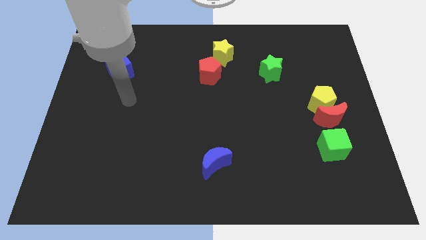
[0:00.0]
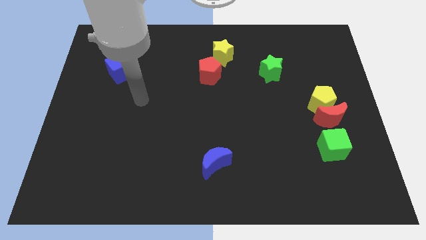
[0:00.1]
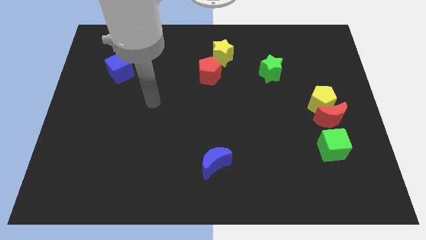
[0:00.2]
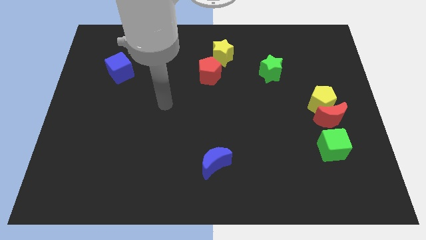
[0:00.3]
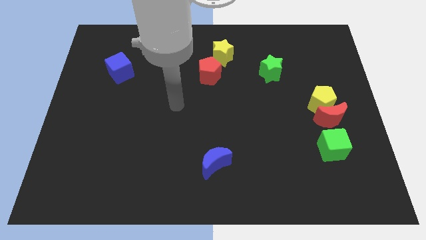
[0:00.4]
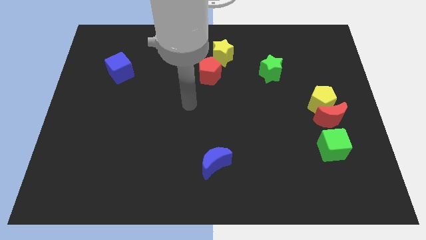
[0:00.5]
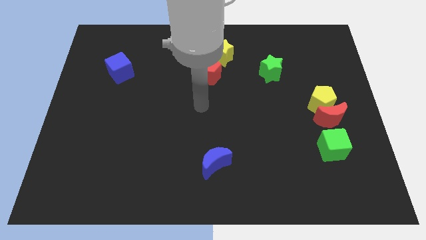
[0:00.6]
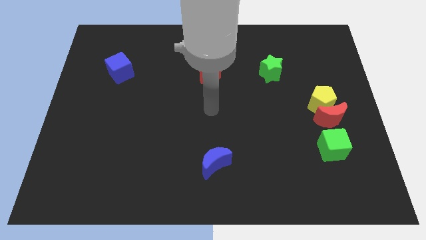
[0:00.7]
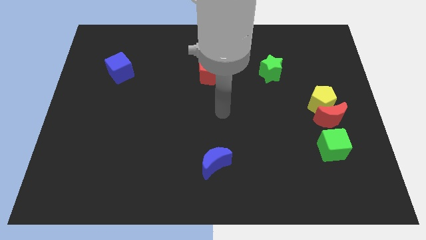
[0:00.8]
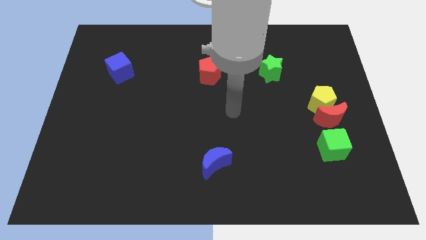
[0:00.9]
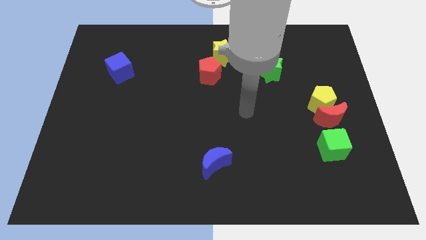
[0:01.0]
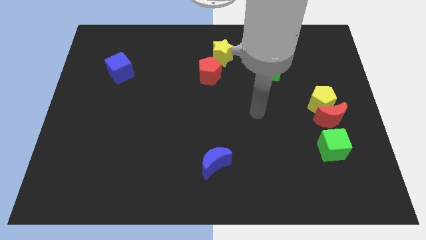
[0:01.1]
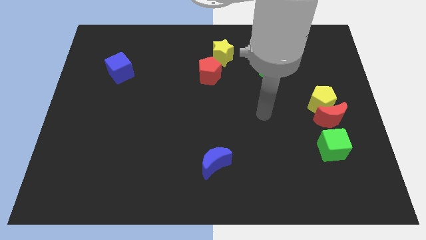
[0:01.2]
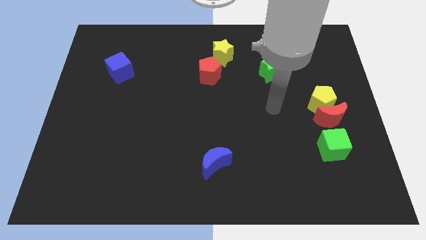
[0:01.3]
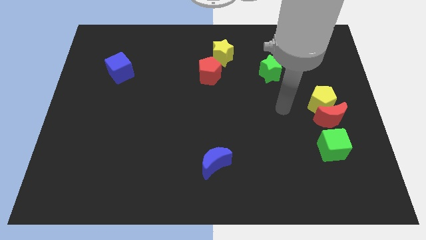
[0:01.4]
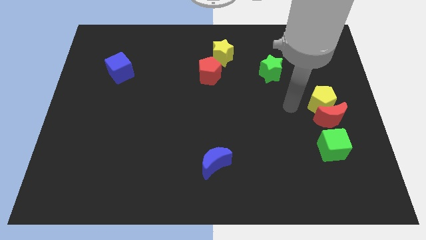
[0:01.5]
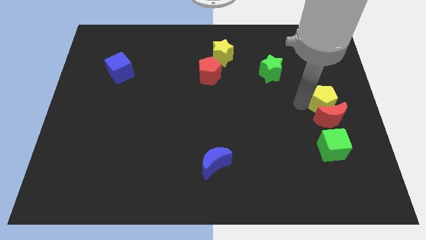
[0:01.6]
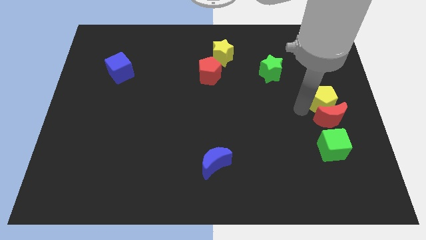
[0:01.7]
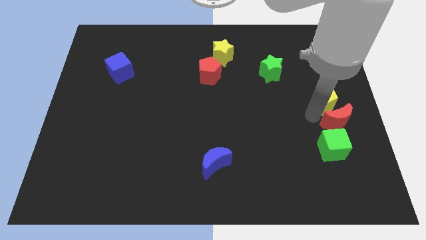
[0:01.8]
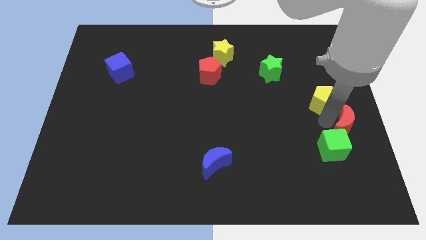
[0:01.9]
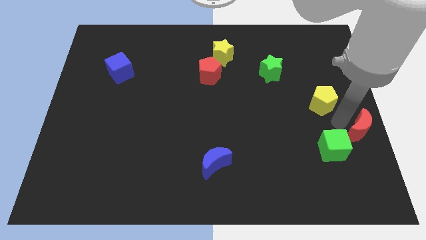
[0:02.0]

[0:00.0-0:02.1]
separate the yellow pentagon from the red moon

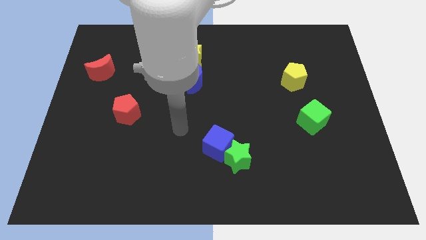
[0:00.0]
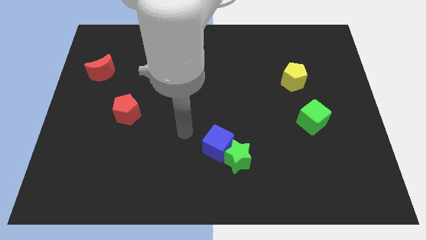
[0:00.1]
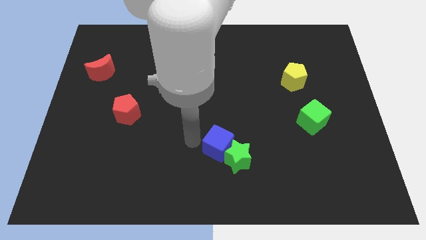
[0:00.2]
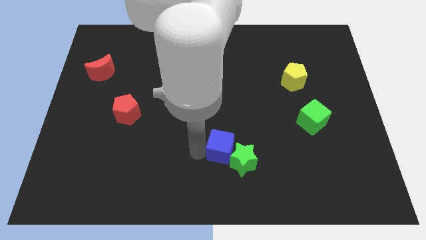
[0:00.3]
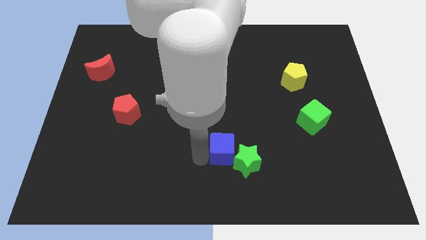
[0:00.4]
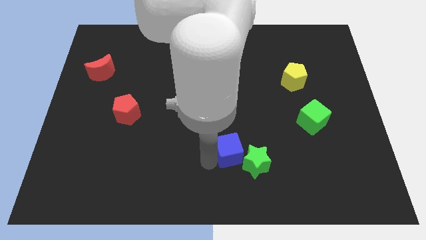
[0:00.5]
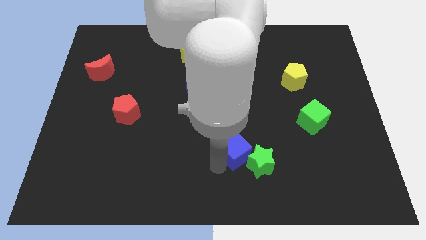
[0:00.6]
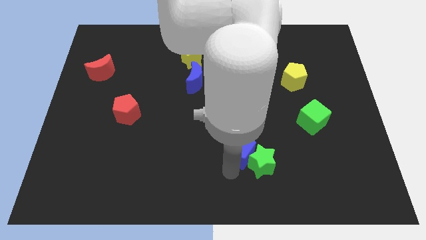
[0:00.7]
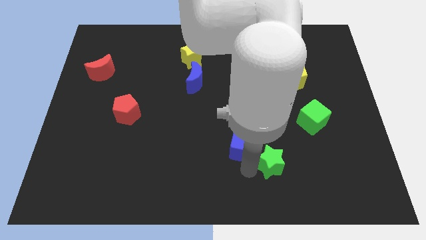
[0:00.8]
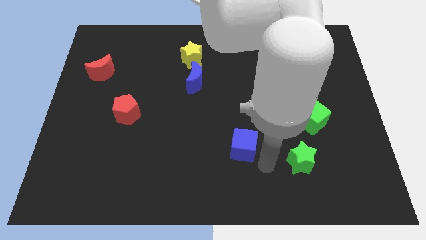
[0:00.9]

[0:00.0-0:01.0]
move the blue cube away from the green star

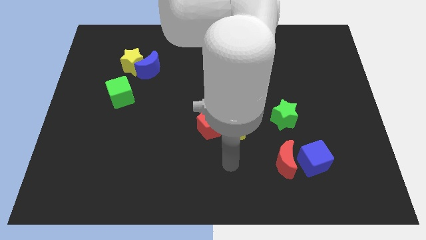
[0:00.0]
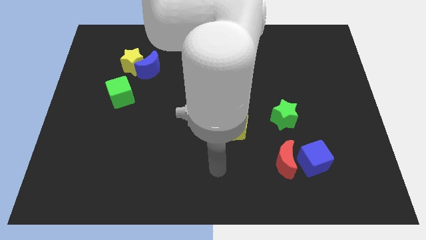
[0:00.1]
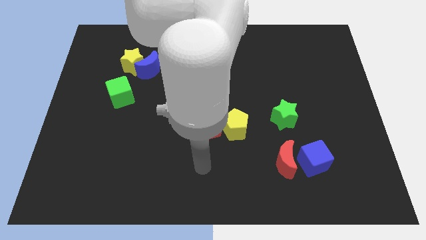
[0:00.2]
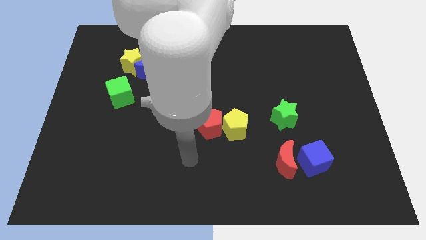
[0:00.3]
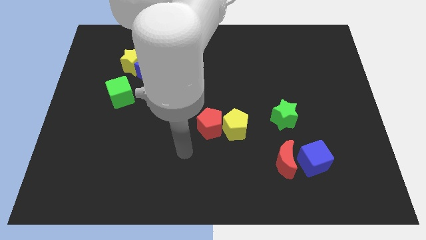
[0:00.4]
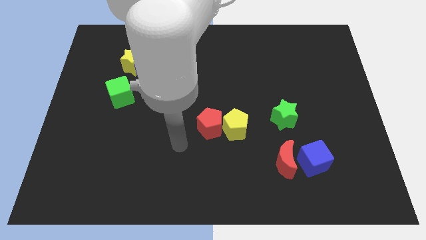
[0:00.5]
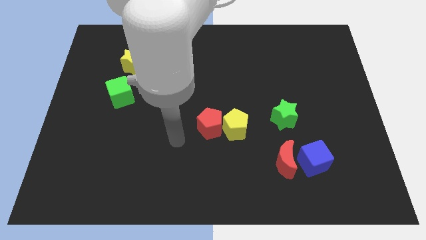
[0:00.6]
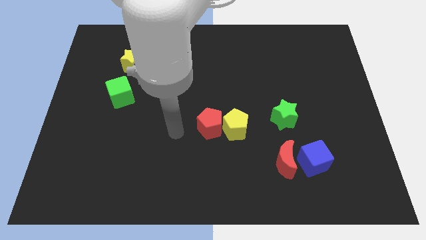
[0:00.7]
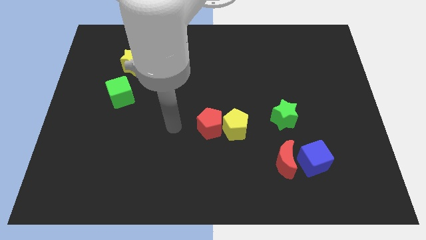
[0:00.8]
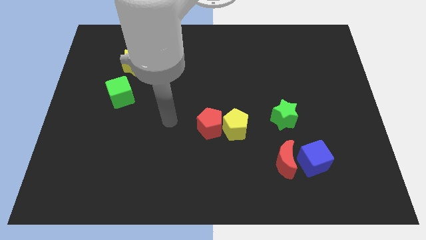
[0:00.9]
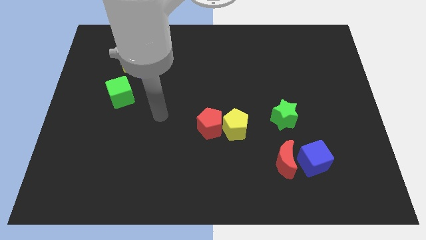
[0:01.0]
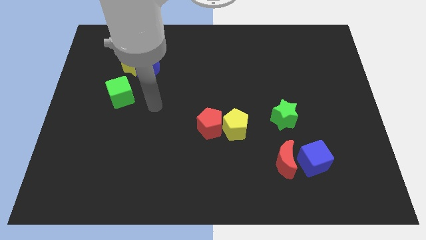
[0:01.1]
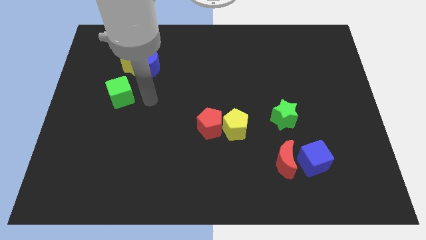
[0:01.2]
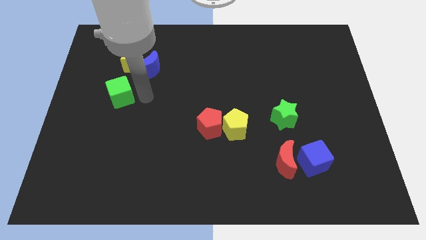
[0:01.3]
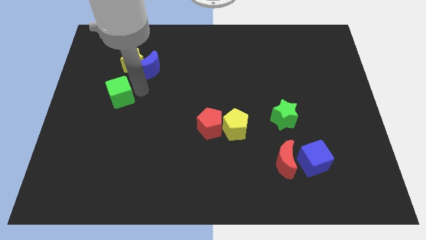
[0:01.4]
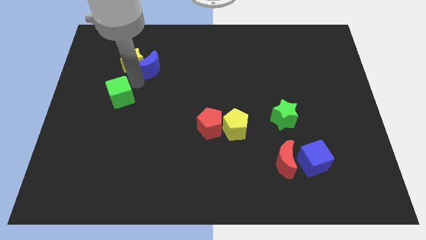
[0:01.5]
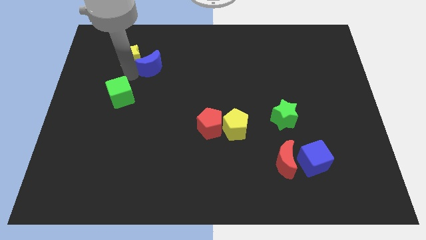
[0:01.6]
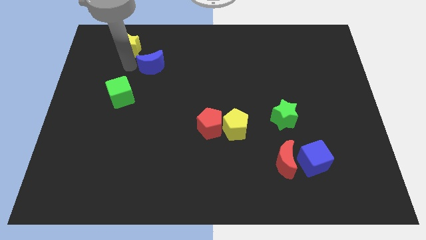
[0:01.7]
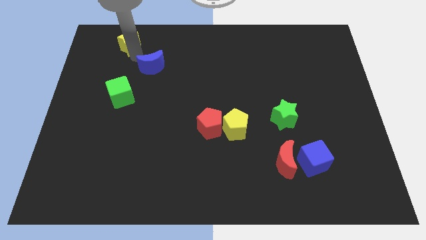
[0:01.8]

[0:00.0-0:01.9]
move the blue moon away from the yellow star

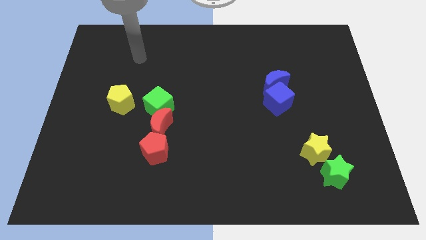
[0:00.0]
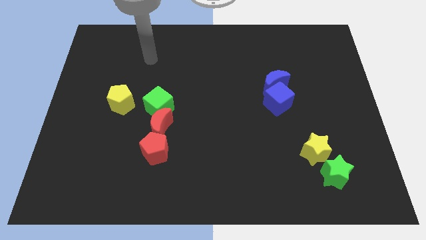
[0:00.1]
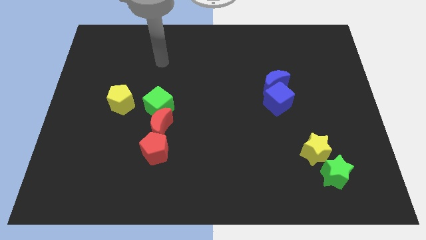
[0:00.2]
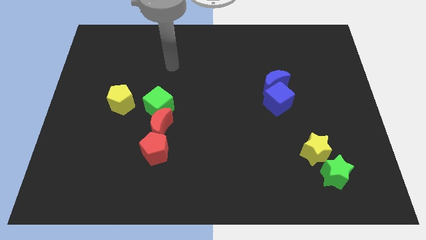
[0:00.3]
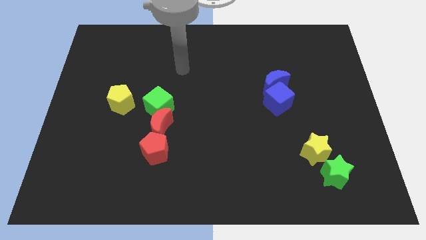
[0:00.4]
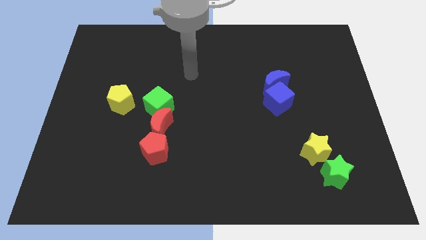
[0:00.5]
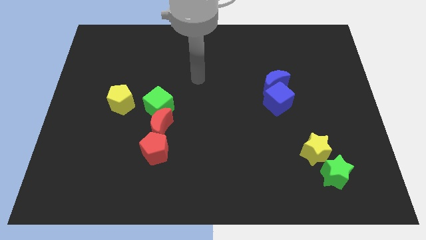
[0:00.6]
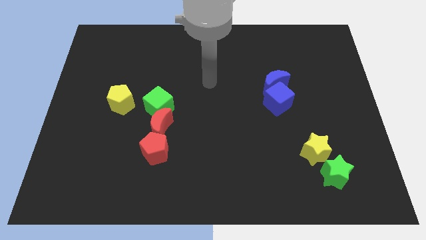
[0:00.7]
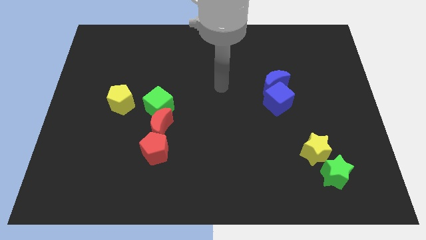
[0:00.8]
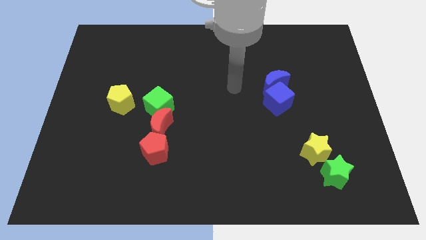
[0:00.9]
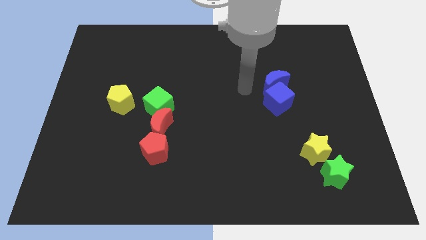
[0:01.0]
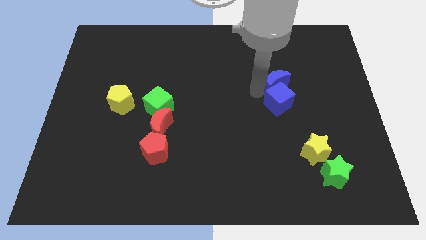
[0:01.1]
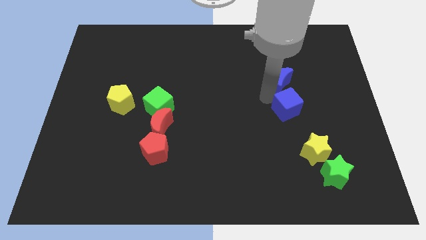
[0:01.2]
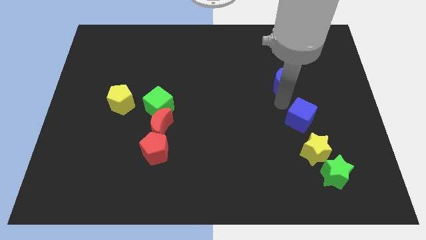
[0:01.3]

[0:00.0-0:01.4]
pull the blue moon apart from the blue cube

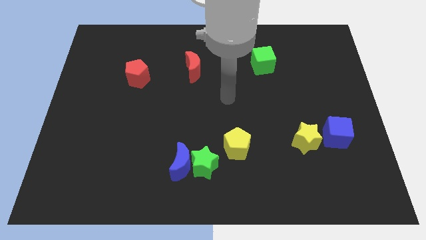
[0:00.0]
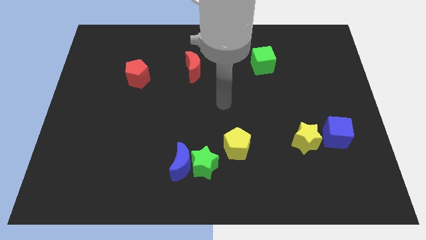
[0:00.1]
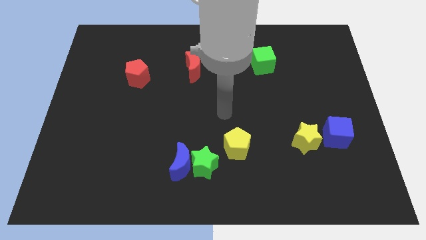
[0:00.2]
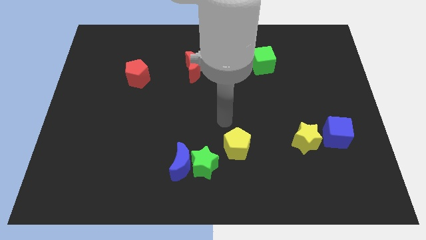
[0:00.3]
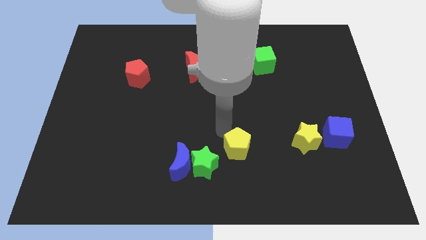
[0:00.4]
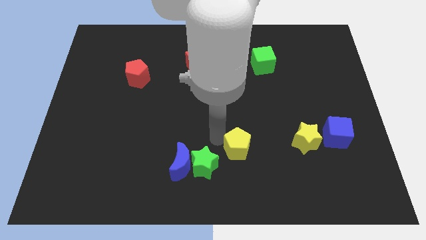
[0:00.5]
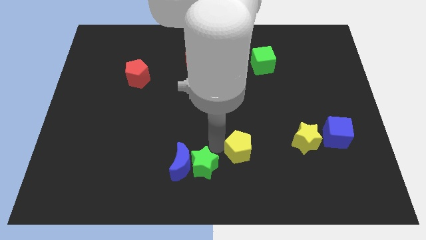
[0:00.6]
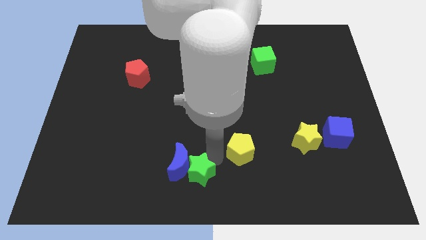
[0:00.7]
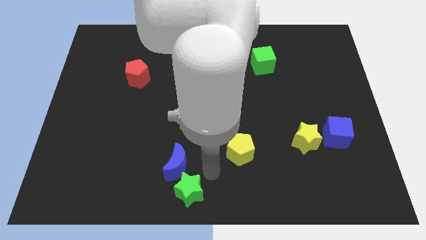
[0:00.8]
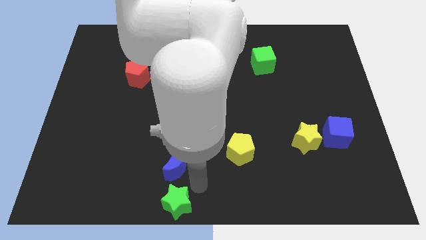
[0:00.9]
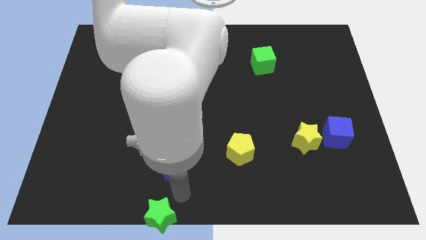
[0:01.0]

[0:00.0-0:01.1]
move the blue moon away from the green star

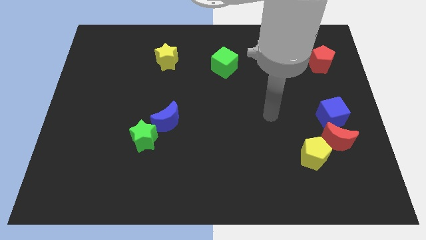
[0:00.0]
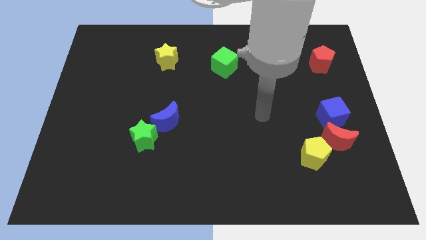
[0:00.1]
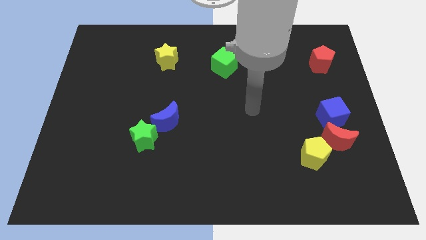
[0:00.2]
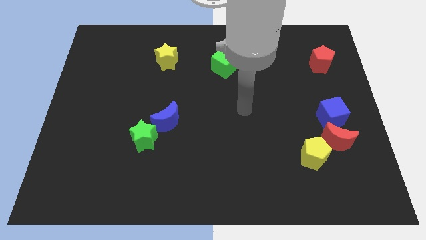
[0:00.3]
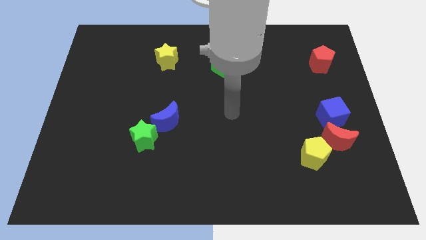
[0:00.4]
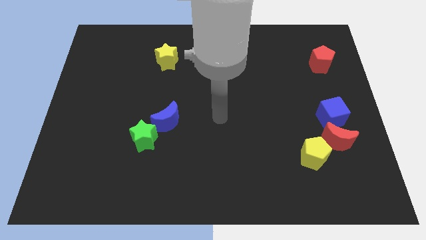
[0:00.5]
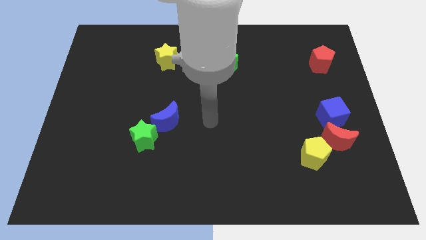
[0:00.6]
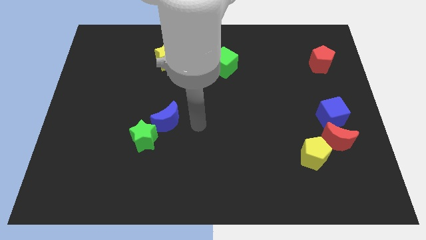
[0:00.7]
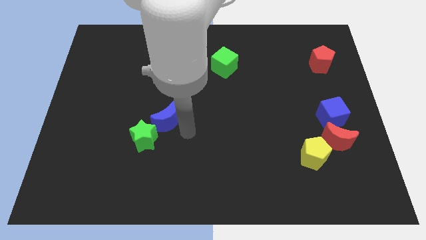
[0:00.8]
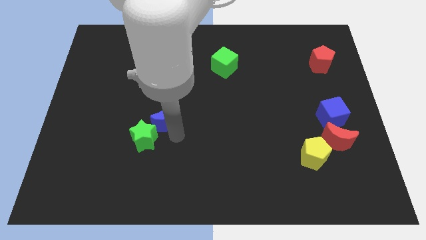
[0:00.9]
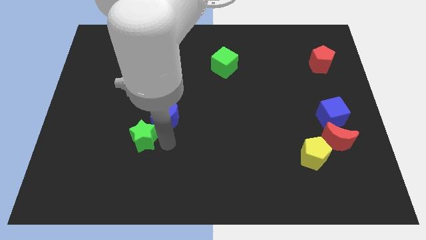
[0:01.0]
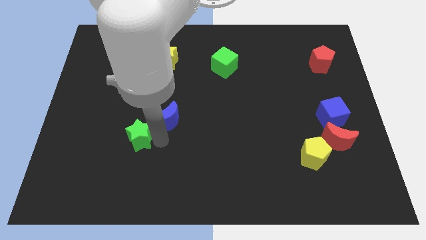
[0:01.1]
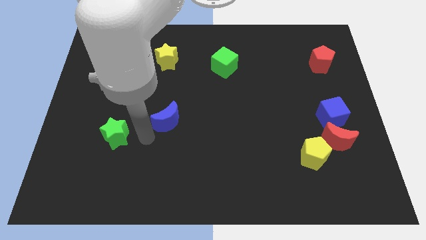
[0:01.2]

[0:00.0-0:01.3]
pull the blue moon apart from the green star

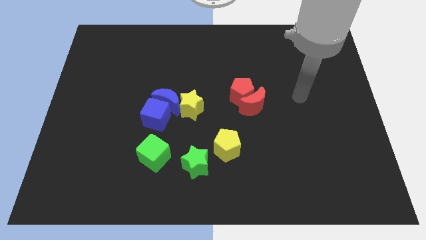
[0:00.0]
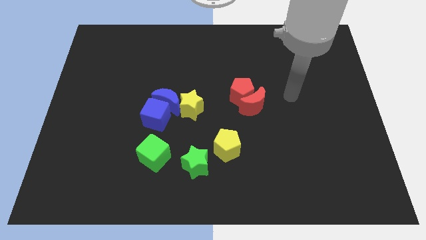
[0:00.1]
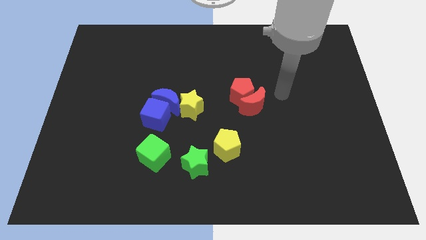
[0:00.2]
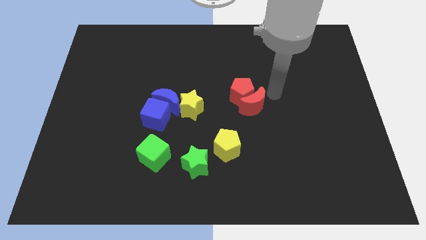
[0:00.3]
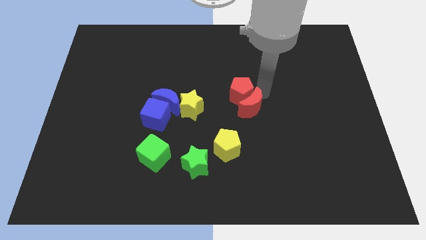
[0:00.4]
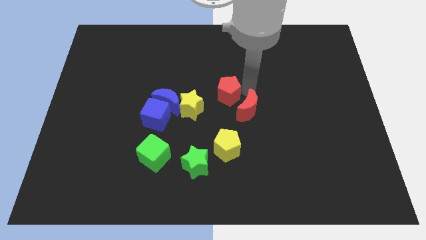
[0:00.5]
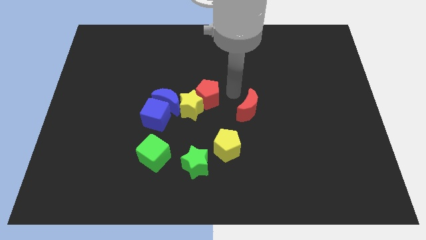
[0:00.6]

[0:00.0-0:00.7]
move the red moon away from the red pentagon

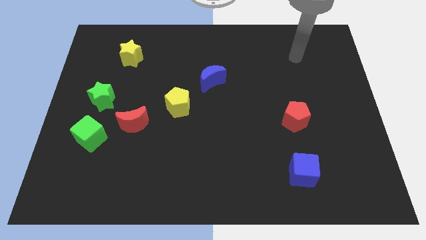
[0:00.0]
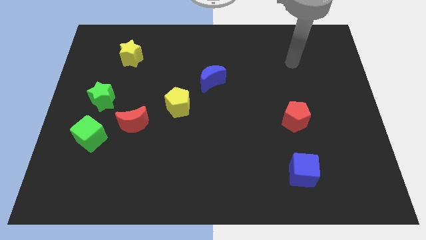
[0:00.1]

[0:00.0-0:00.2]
pull the red moon apart from the green cube
